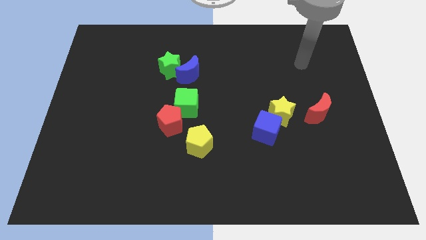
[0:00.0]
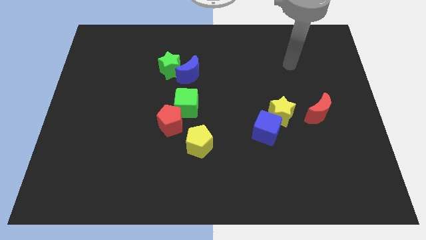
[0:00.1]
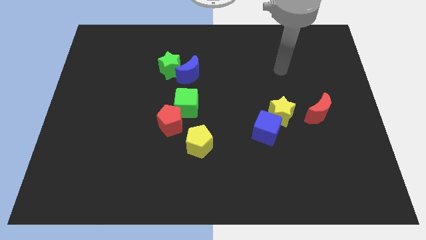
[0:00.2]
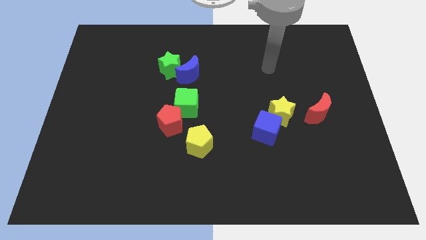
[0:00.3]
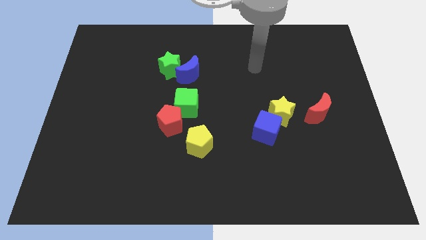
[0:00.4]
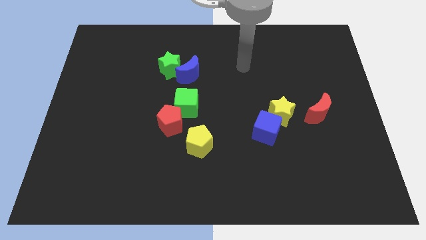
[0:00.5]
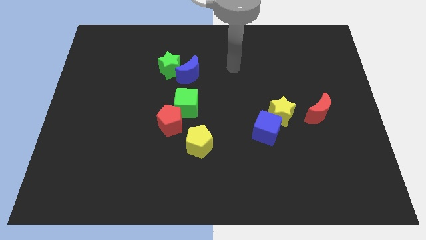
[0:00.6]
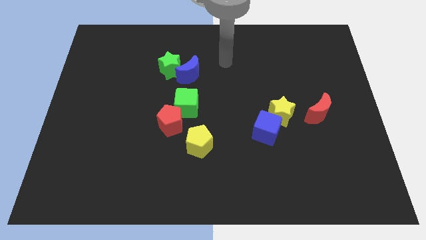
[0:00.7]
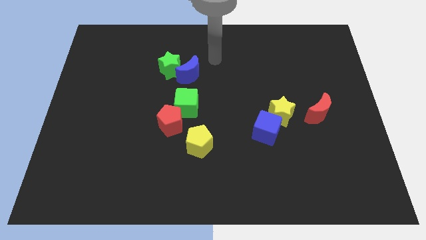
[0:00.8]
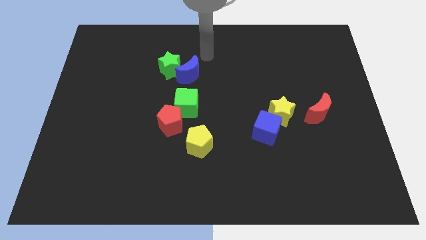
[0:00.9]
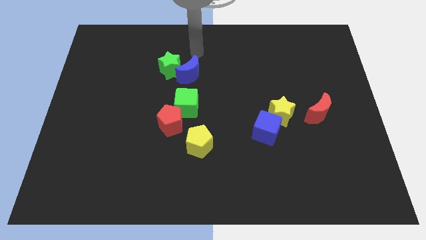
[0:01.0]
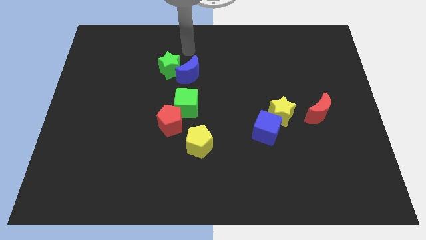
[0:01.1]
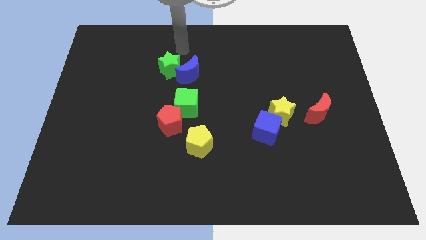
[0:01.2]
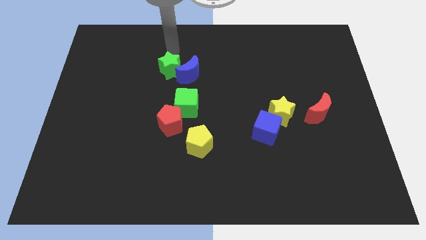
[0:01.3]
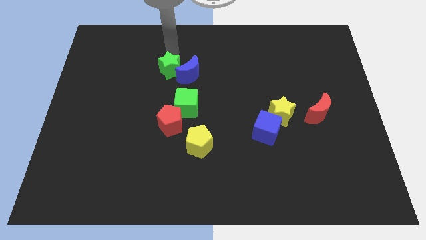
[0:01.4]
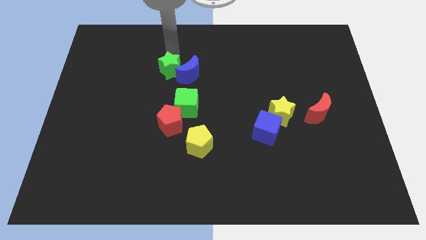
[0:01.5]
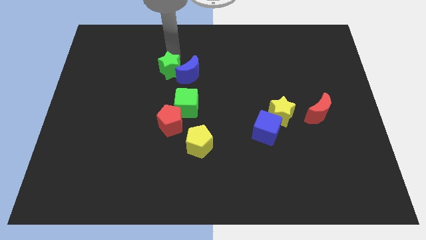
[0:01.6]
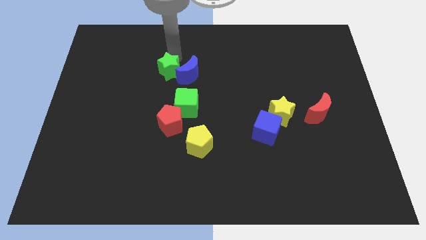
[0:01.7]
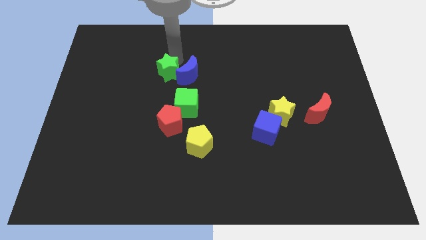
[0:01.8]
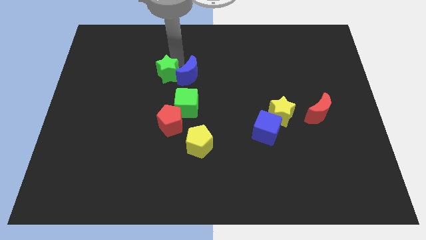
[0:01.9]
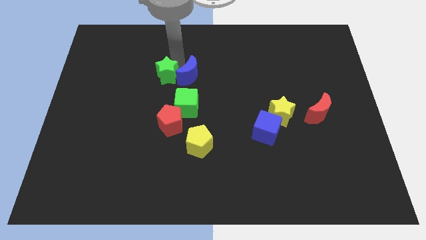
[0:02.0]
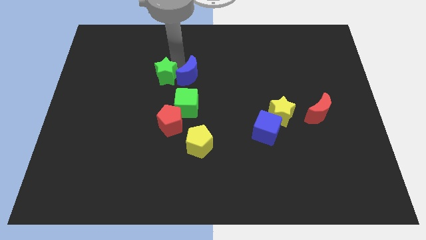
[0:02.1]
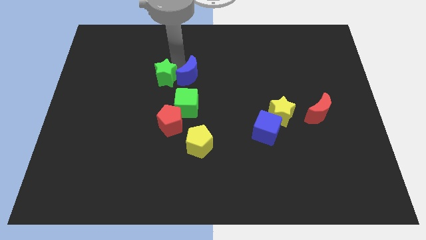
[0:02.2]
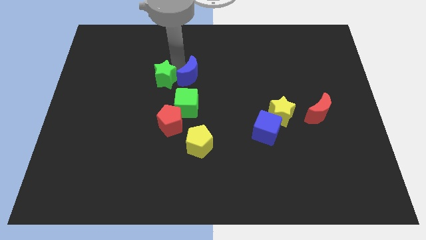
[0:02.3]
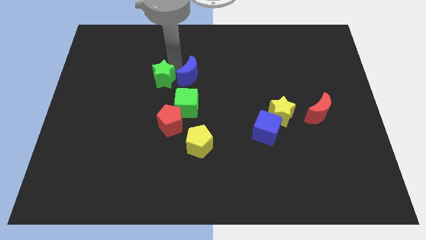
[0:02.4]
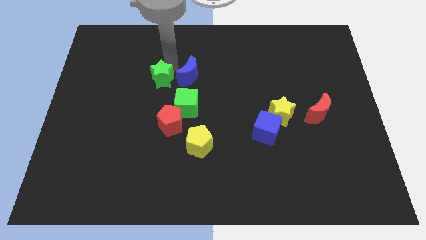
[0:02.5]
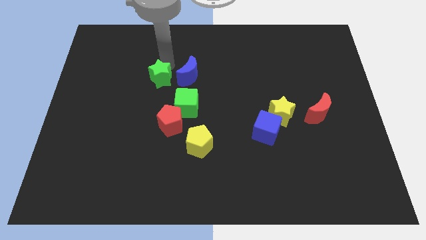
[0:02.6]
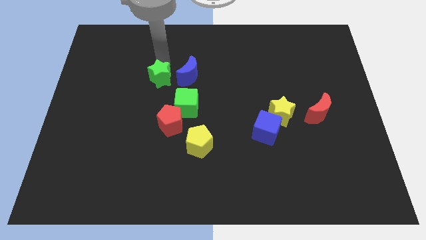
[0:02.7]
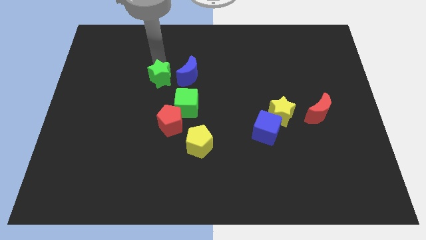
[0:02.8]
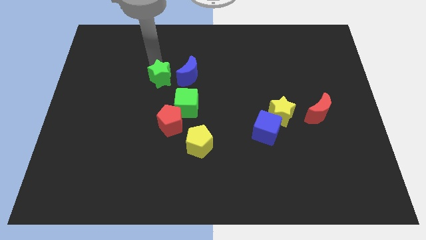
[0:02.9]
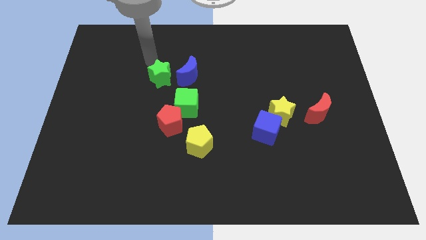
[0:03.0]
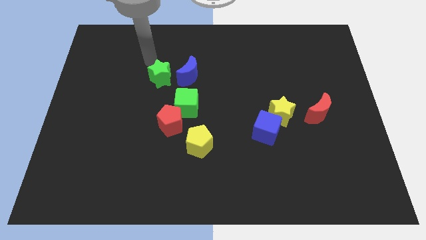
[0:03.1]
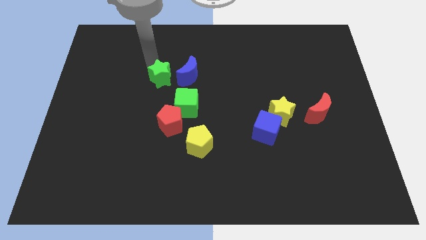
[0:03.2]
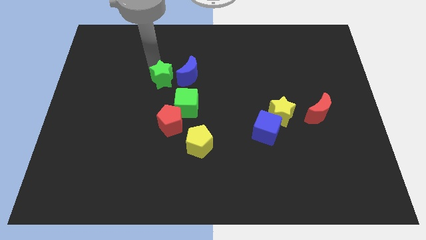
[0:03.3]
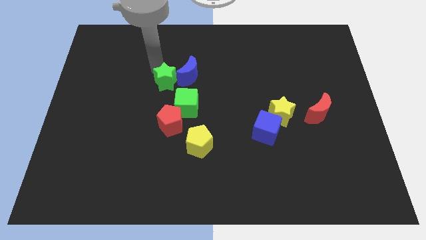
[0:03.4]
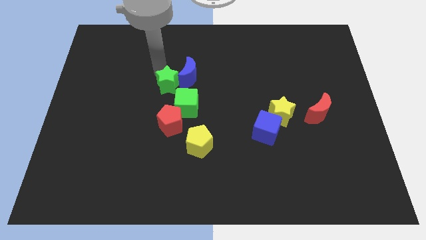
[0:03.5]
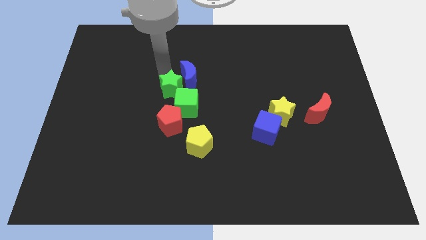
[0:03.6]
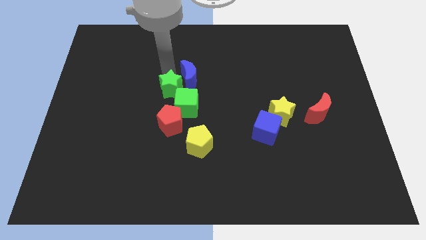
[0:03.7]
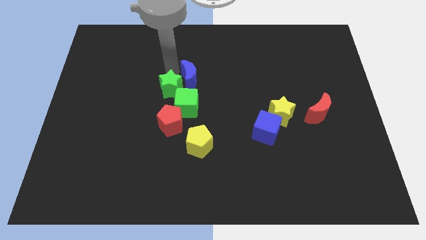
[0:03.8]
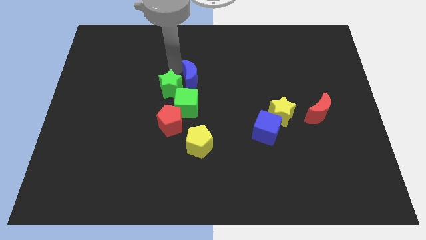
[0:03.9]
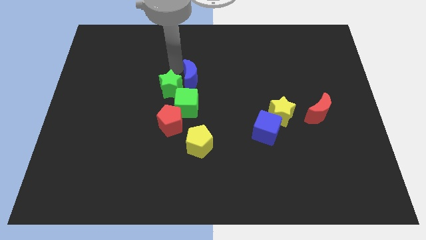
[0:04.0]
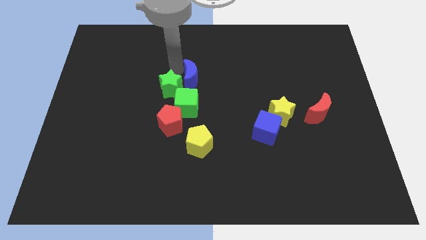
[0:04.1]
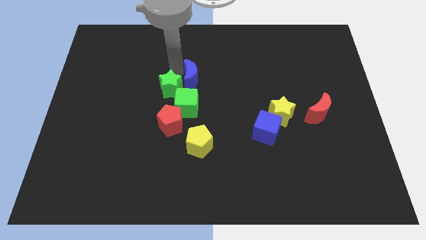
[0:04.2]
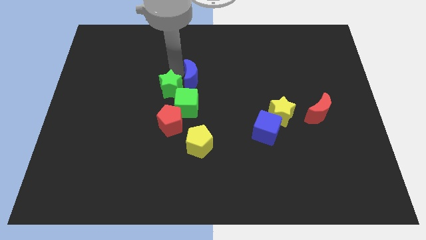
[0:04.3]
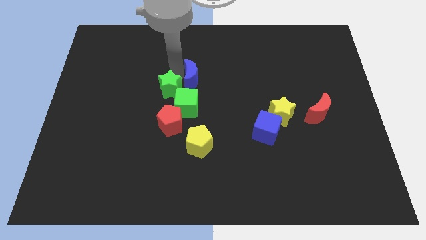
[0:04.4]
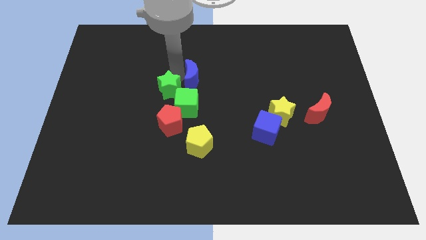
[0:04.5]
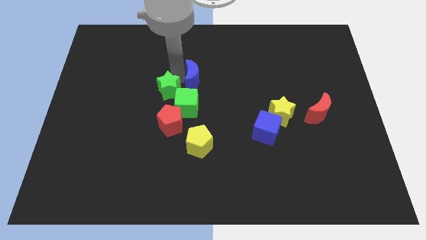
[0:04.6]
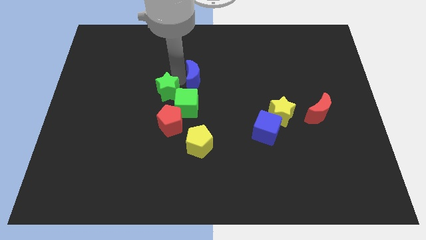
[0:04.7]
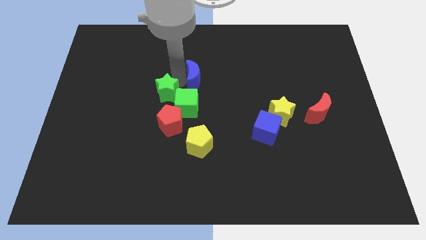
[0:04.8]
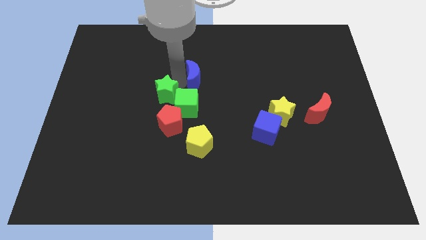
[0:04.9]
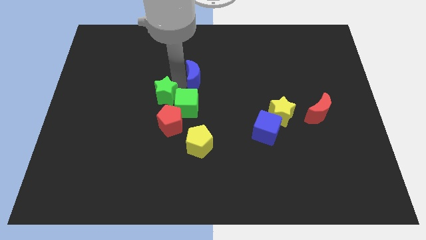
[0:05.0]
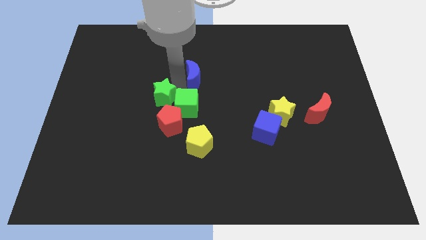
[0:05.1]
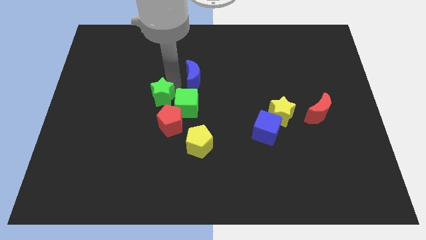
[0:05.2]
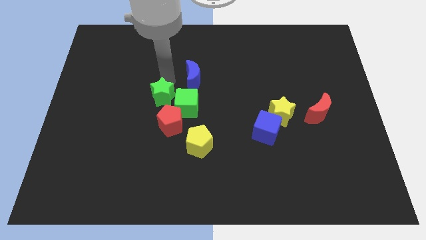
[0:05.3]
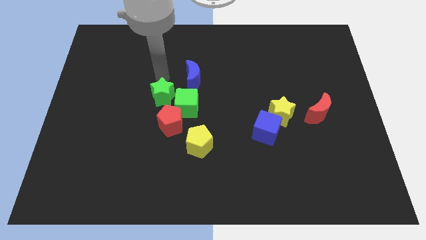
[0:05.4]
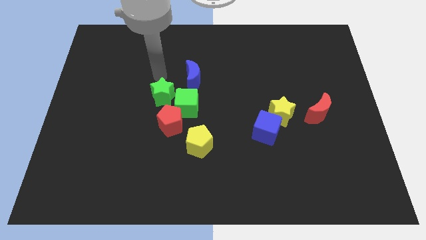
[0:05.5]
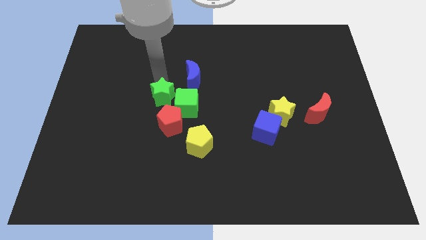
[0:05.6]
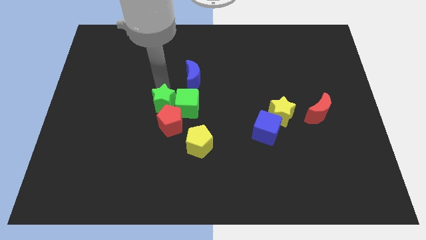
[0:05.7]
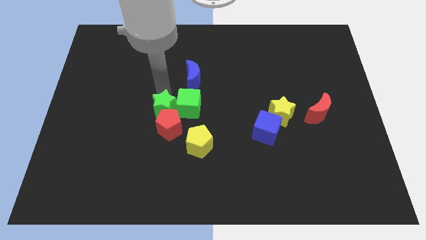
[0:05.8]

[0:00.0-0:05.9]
push the green star next to the red pentagon

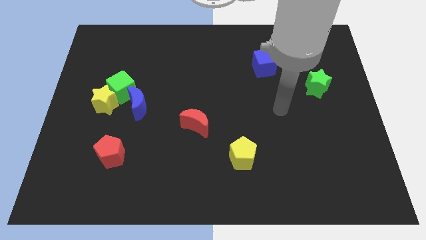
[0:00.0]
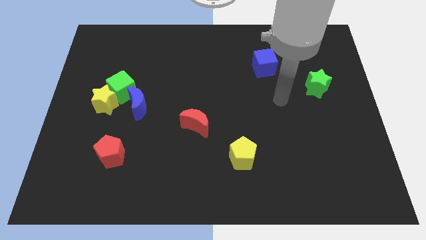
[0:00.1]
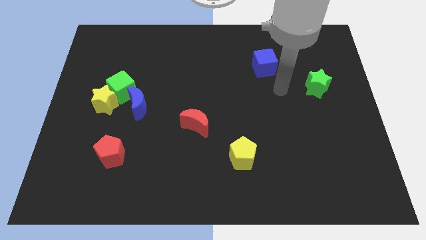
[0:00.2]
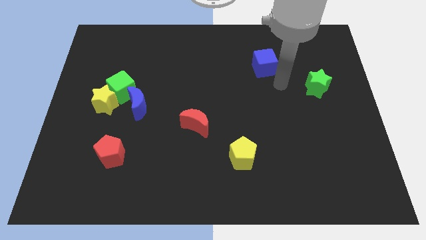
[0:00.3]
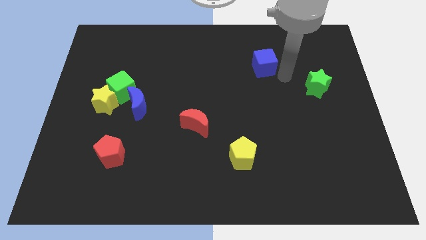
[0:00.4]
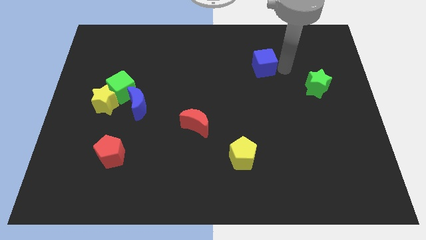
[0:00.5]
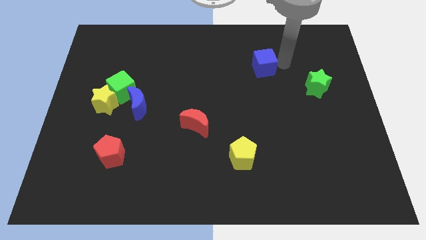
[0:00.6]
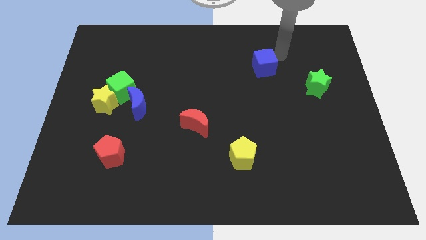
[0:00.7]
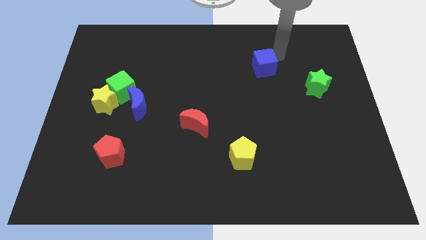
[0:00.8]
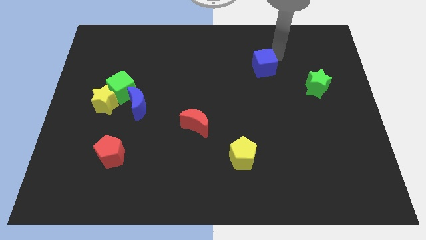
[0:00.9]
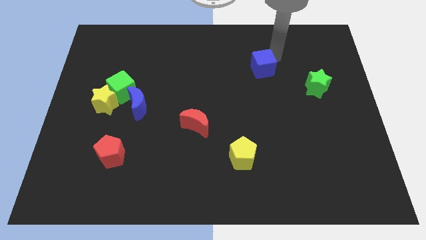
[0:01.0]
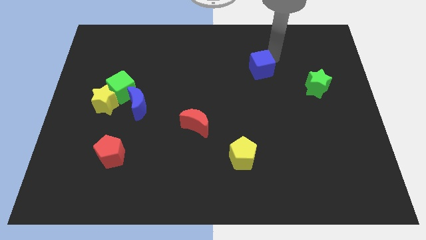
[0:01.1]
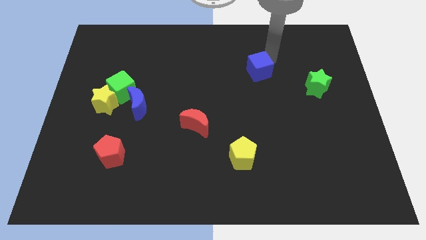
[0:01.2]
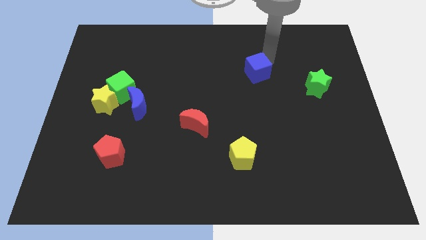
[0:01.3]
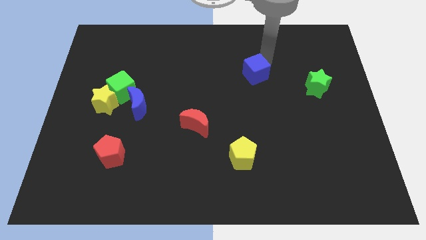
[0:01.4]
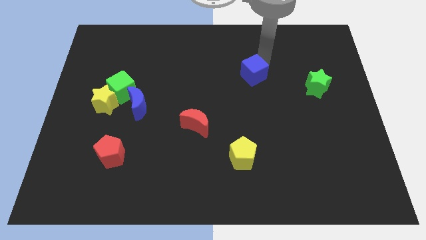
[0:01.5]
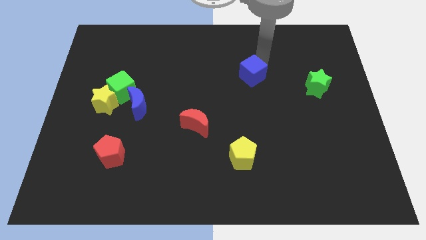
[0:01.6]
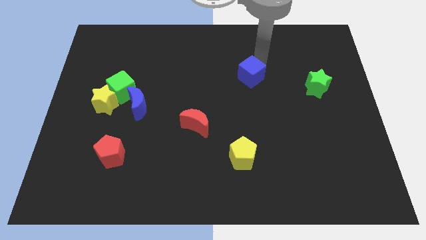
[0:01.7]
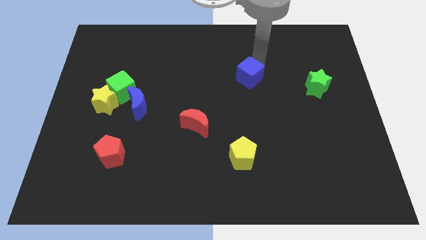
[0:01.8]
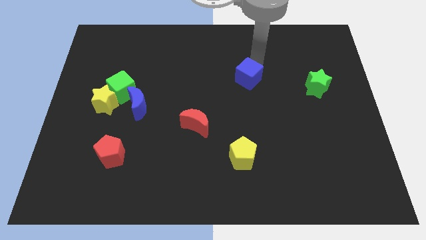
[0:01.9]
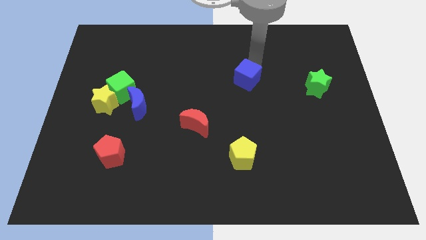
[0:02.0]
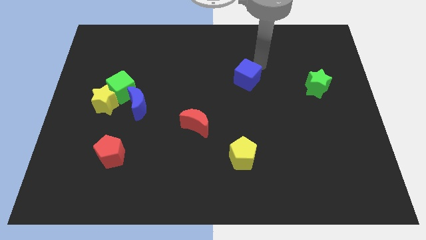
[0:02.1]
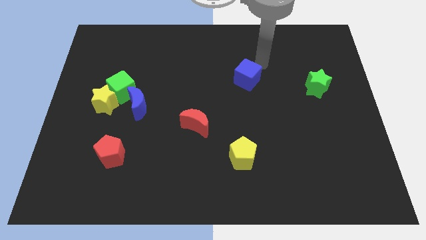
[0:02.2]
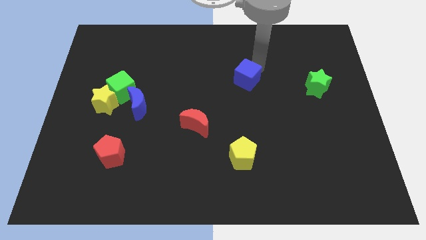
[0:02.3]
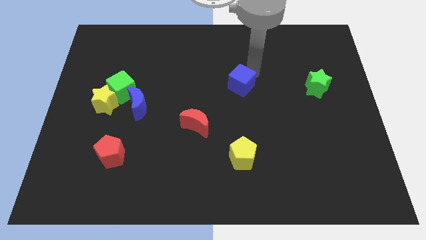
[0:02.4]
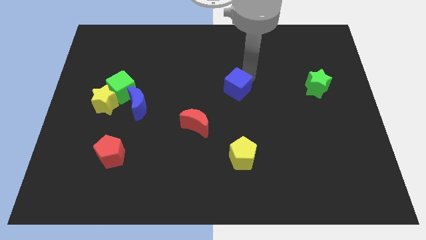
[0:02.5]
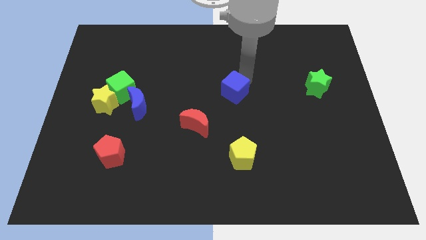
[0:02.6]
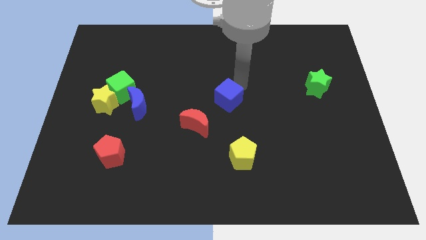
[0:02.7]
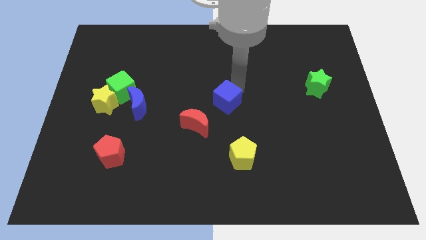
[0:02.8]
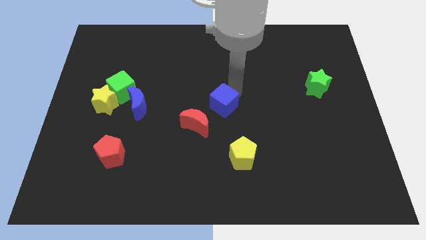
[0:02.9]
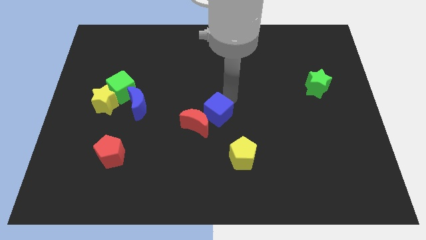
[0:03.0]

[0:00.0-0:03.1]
put the blue cube close to the red moon
